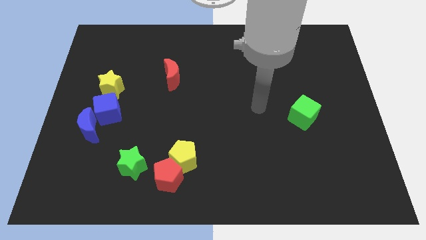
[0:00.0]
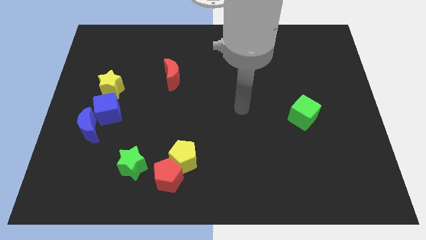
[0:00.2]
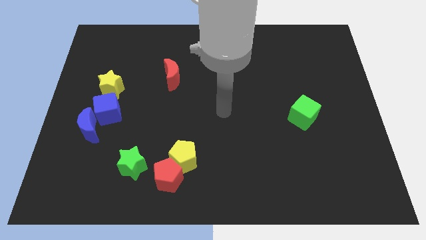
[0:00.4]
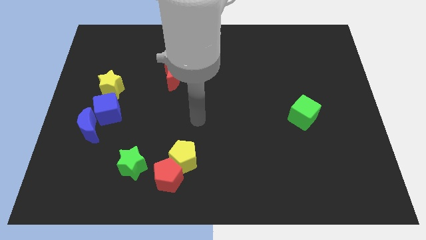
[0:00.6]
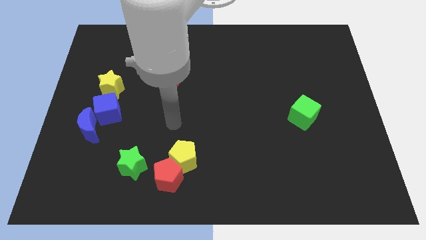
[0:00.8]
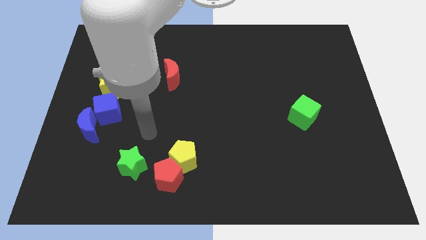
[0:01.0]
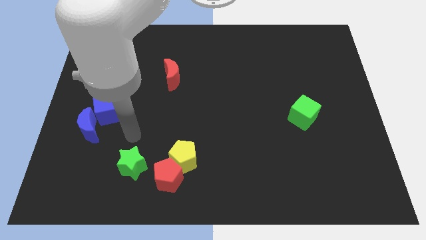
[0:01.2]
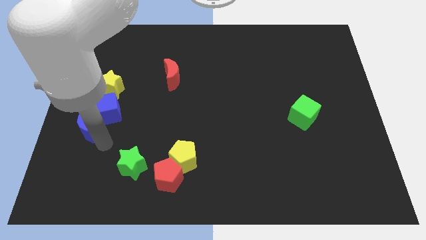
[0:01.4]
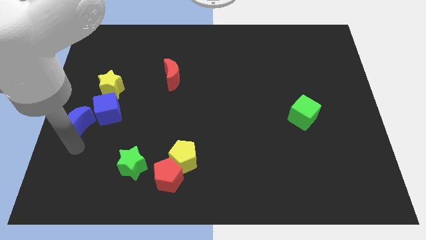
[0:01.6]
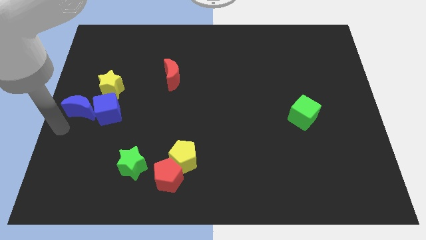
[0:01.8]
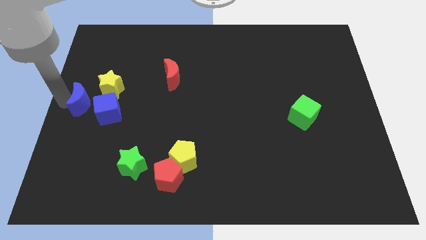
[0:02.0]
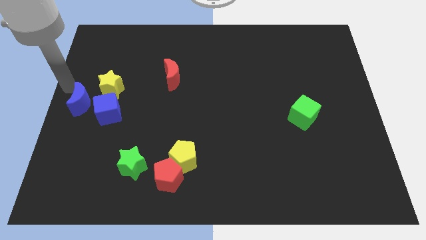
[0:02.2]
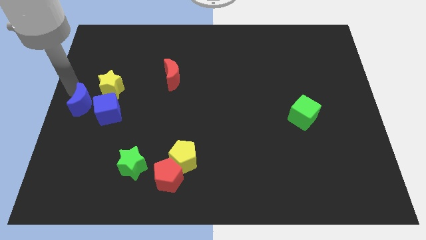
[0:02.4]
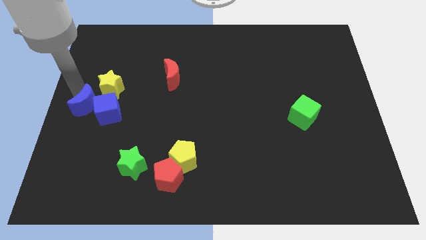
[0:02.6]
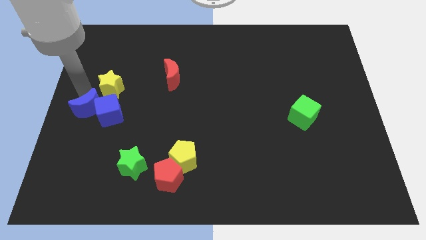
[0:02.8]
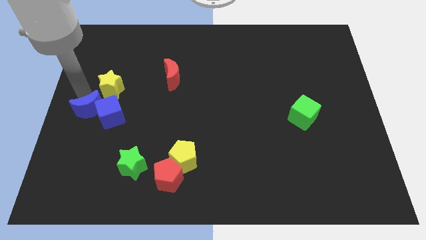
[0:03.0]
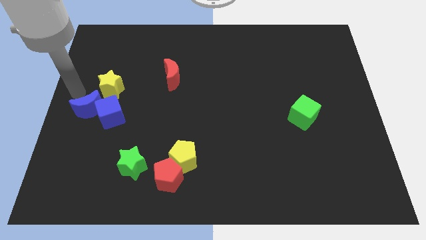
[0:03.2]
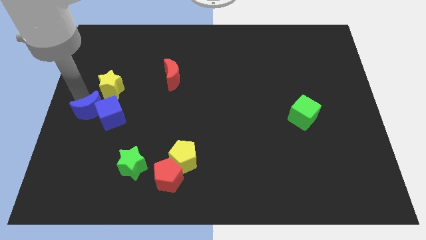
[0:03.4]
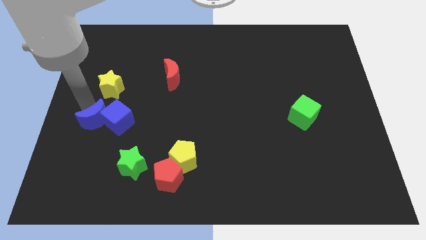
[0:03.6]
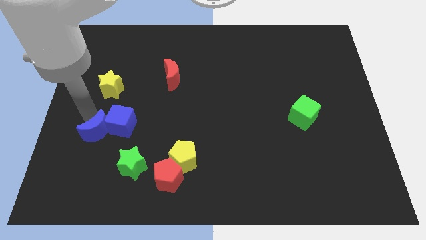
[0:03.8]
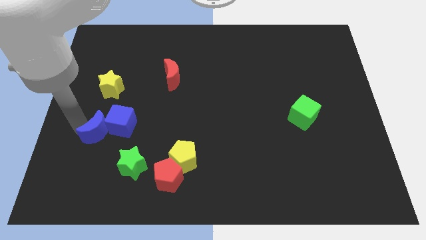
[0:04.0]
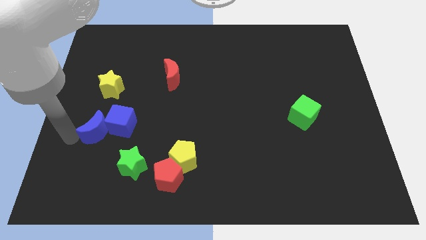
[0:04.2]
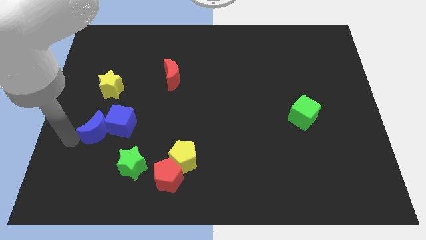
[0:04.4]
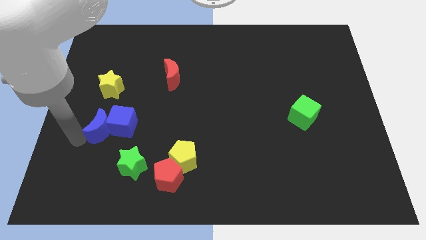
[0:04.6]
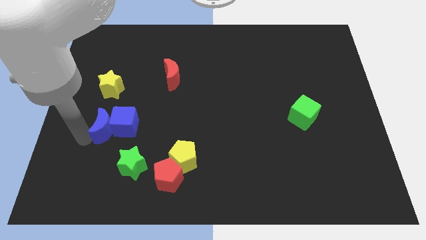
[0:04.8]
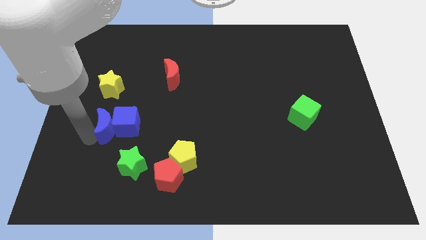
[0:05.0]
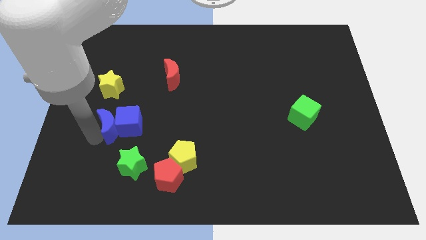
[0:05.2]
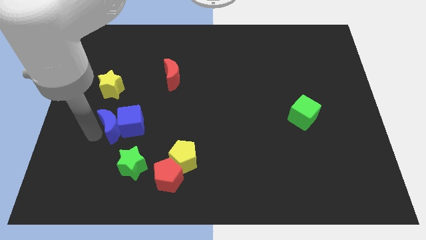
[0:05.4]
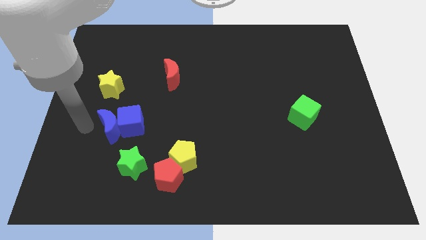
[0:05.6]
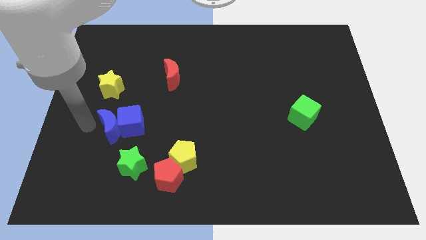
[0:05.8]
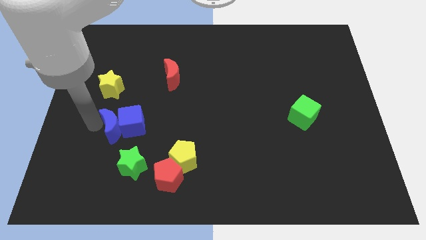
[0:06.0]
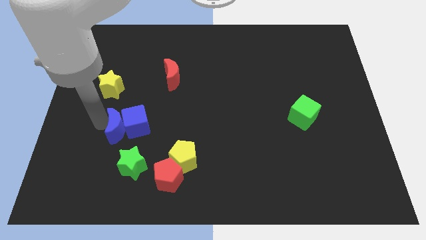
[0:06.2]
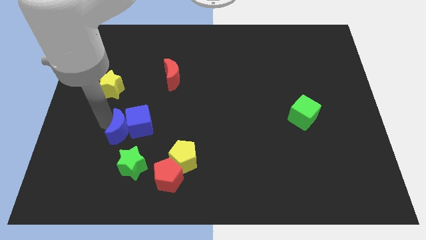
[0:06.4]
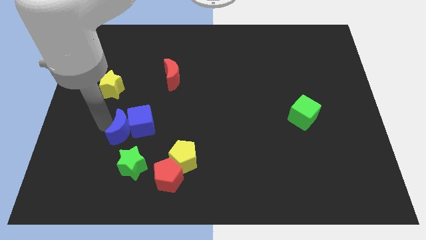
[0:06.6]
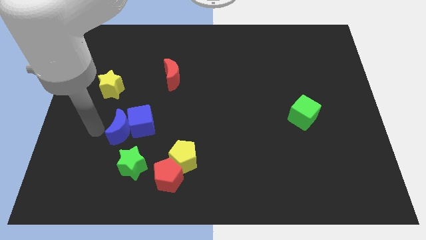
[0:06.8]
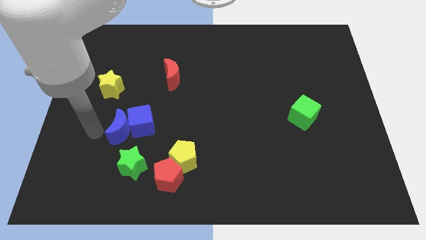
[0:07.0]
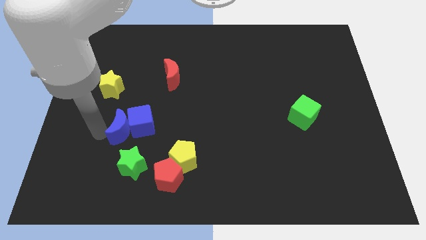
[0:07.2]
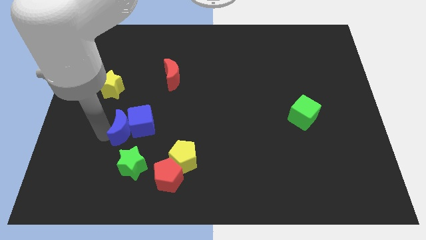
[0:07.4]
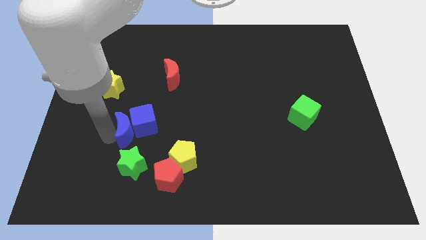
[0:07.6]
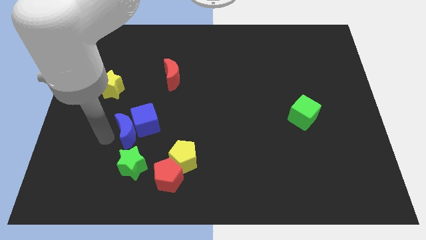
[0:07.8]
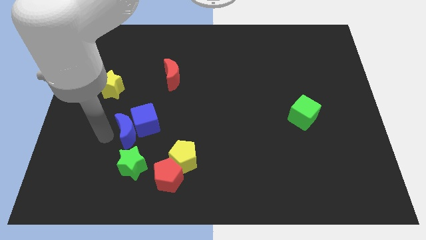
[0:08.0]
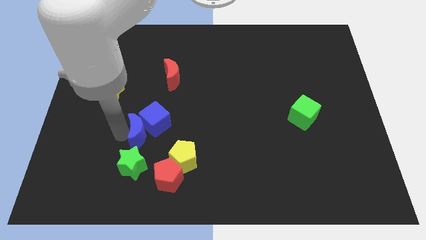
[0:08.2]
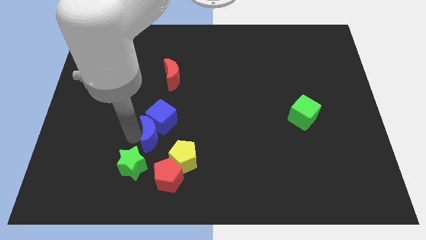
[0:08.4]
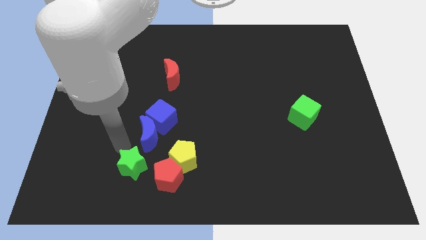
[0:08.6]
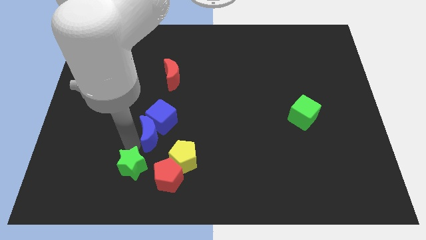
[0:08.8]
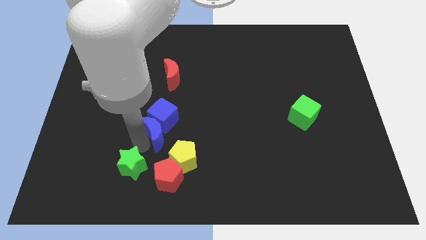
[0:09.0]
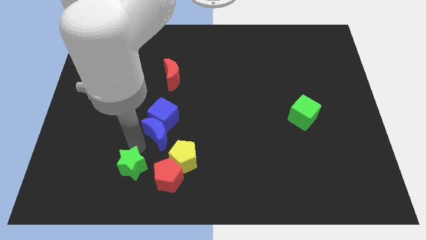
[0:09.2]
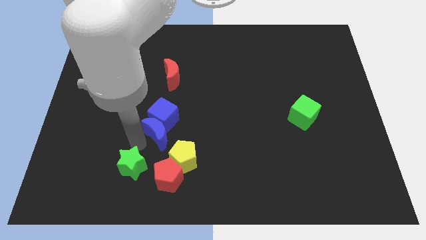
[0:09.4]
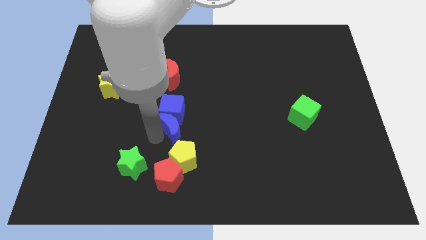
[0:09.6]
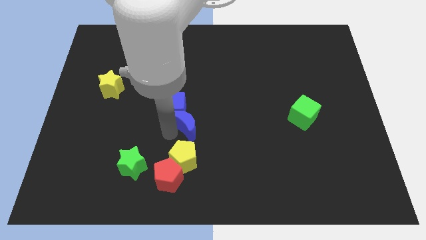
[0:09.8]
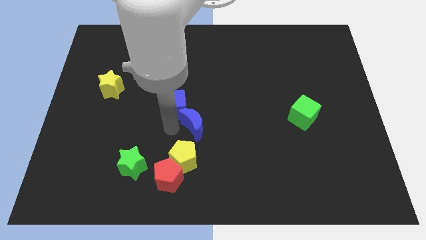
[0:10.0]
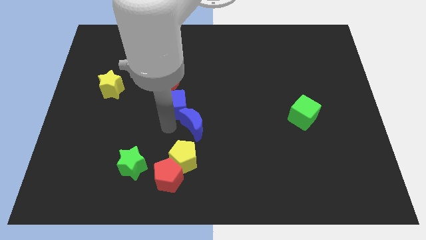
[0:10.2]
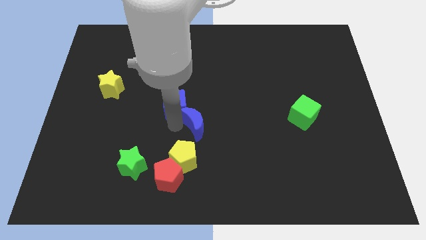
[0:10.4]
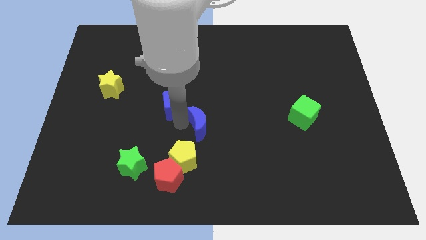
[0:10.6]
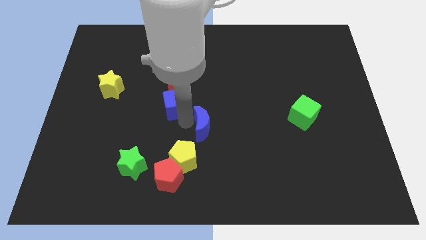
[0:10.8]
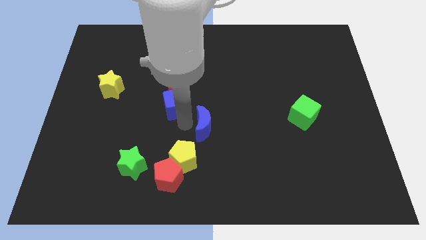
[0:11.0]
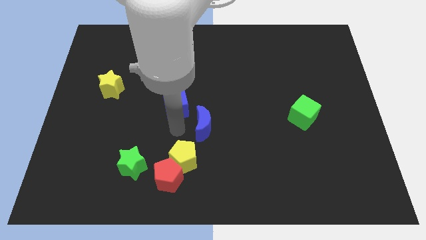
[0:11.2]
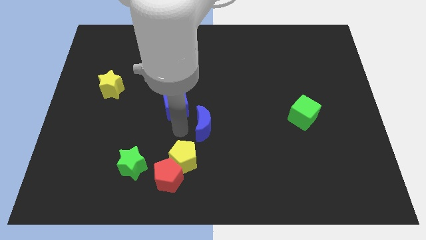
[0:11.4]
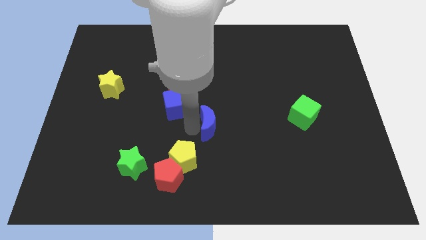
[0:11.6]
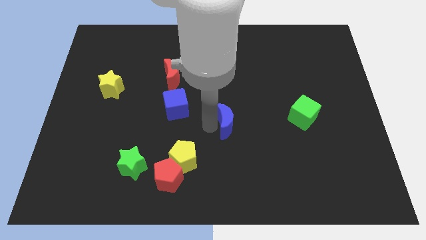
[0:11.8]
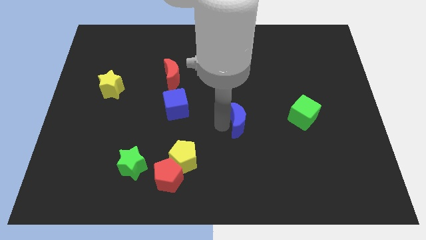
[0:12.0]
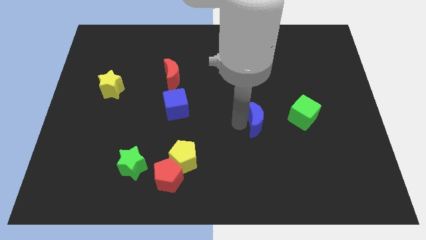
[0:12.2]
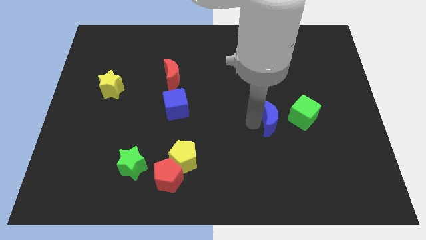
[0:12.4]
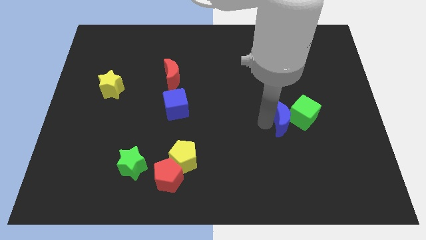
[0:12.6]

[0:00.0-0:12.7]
move the blue moon towards the green cube
